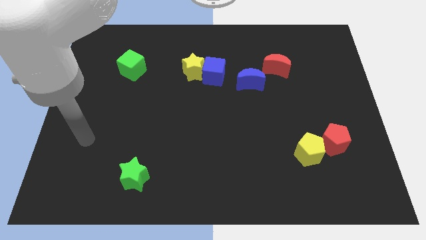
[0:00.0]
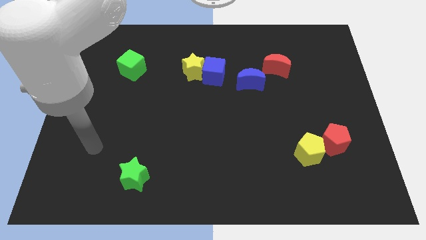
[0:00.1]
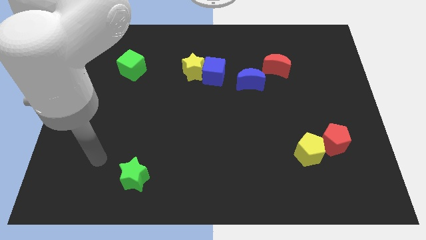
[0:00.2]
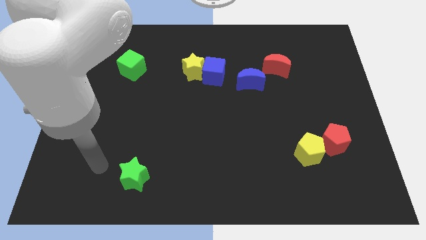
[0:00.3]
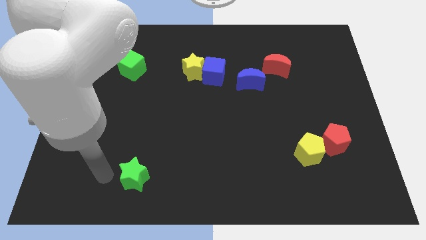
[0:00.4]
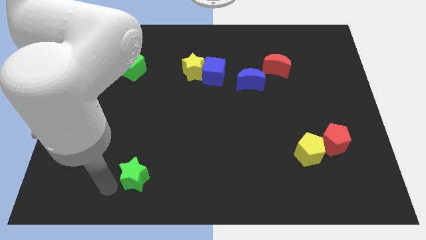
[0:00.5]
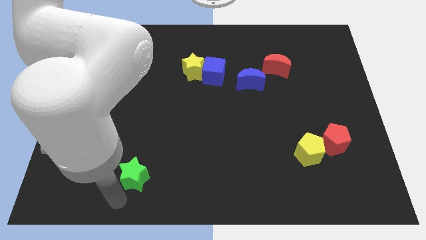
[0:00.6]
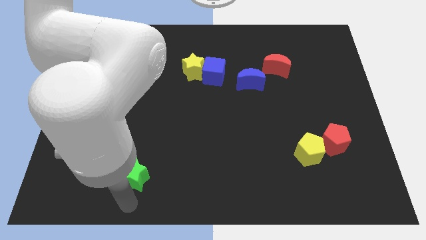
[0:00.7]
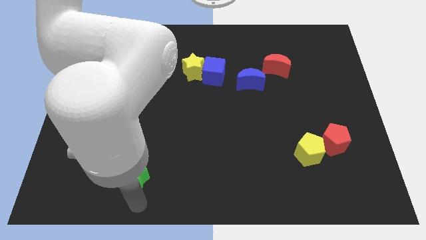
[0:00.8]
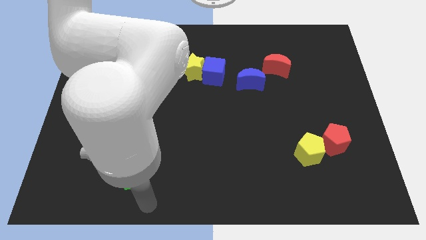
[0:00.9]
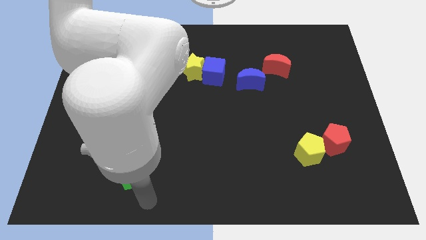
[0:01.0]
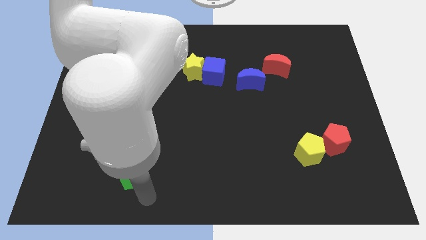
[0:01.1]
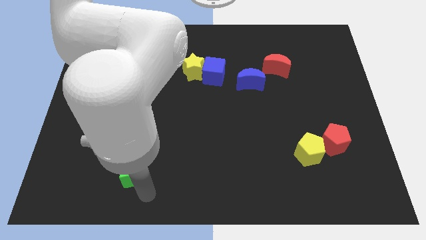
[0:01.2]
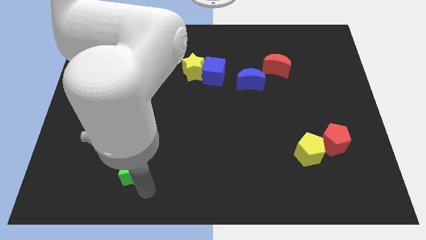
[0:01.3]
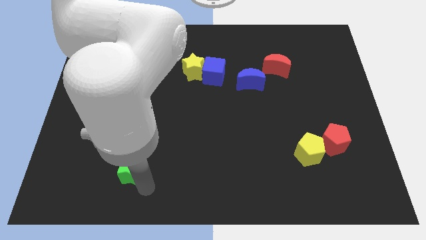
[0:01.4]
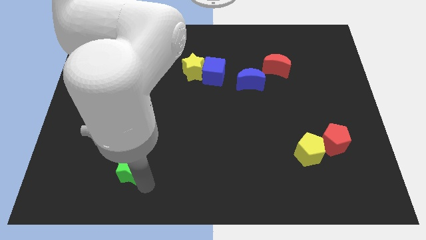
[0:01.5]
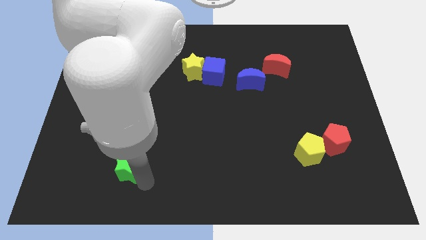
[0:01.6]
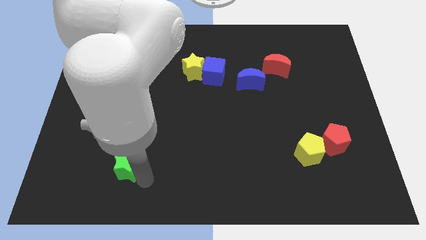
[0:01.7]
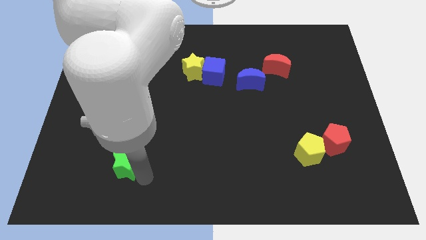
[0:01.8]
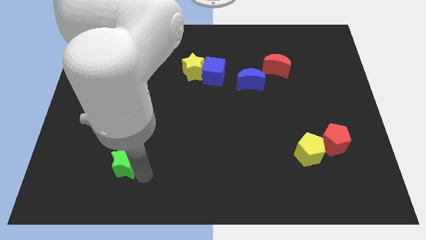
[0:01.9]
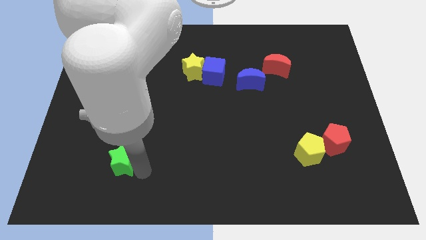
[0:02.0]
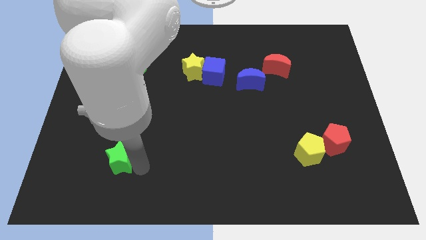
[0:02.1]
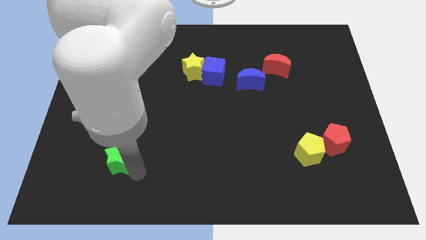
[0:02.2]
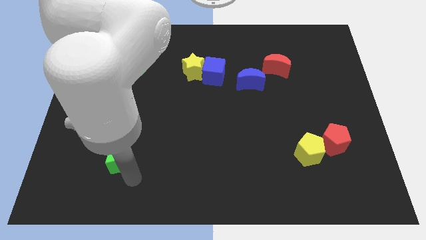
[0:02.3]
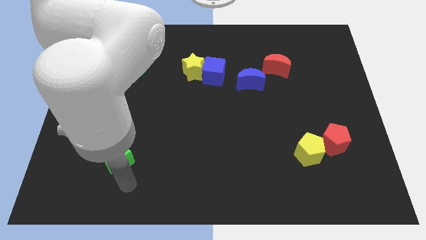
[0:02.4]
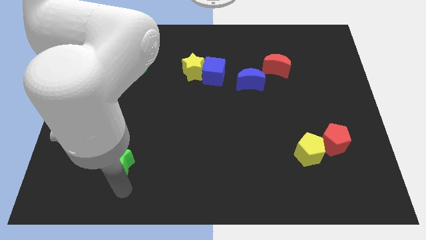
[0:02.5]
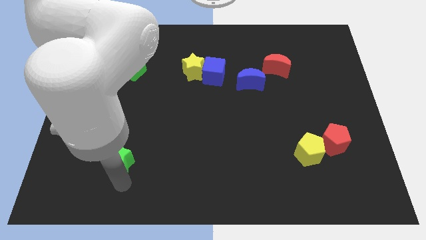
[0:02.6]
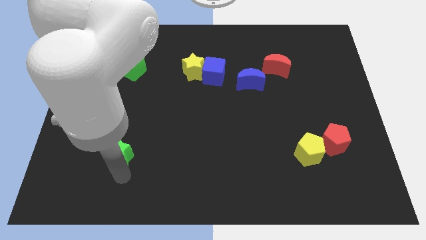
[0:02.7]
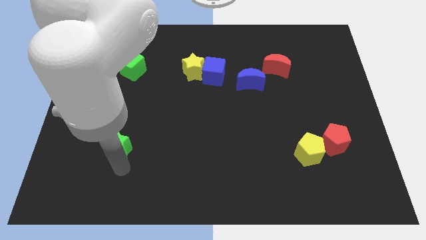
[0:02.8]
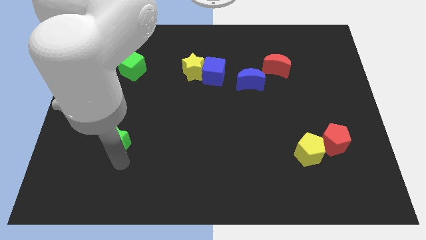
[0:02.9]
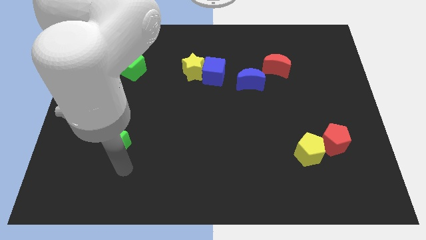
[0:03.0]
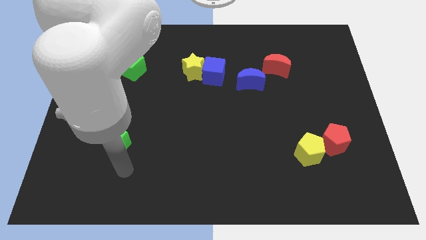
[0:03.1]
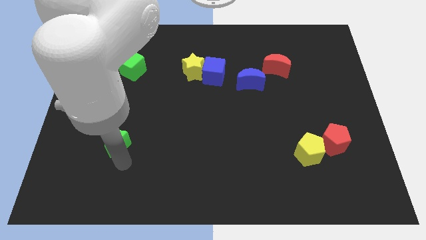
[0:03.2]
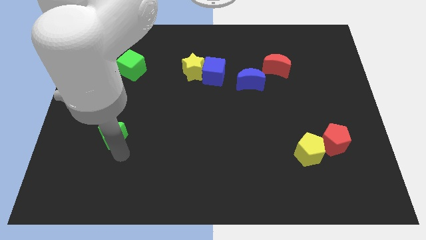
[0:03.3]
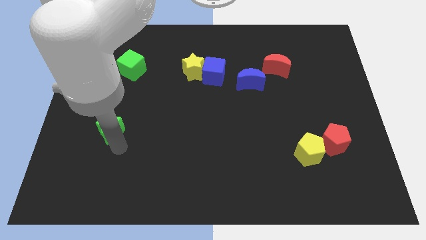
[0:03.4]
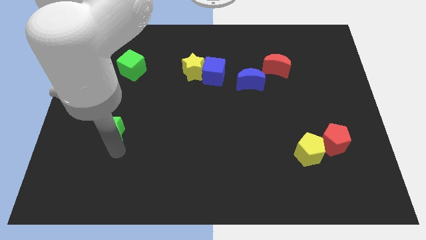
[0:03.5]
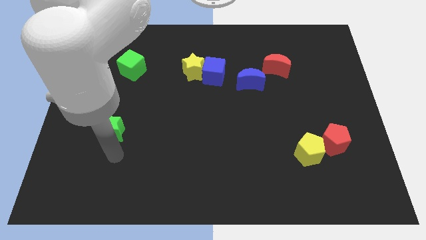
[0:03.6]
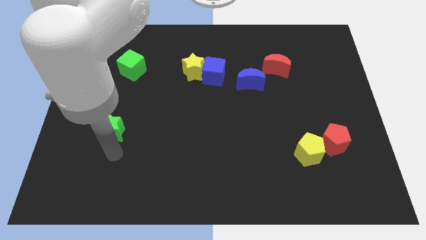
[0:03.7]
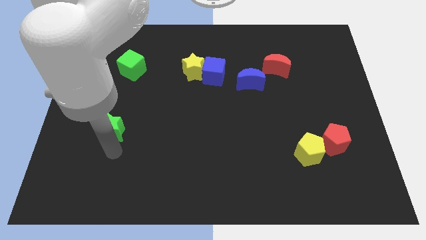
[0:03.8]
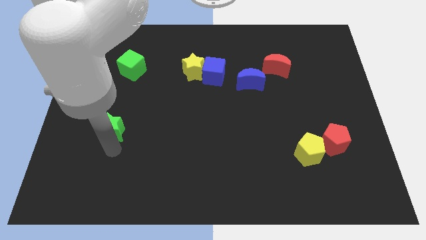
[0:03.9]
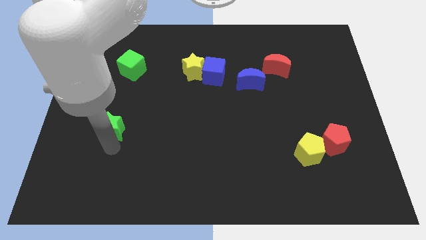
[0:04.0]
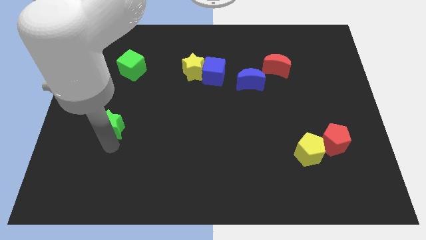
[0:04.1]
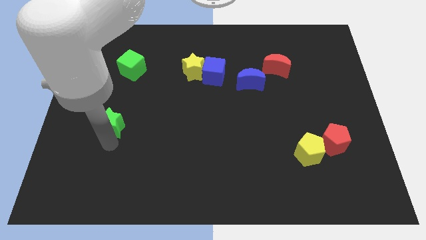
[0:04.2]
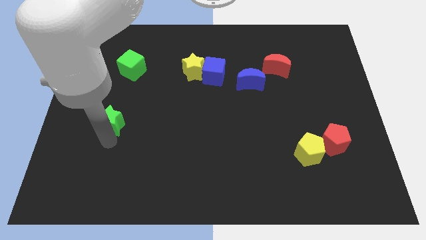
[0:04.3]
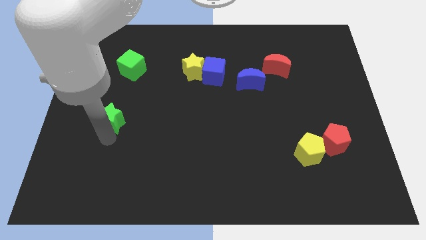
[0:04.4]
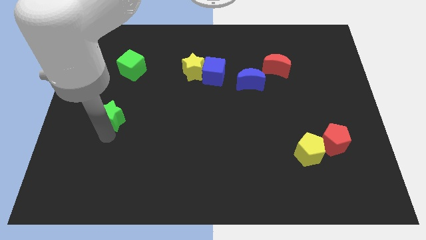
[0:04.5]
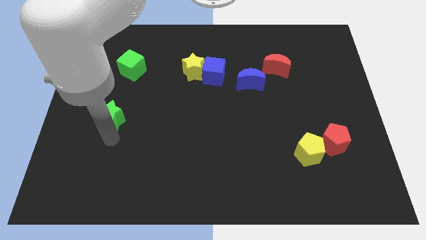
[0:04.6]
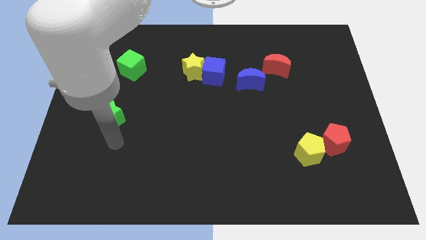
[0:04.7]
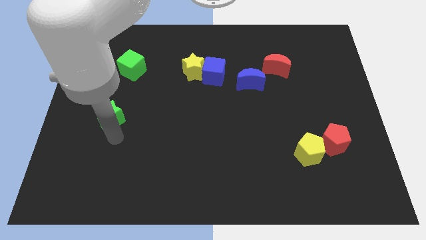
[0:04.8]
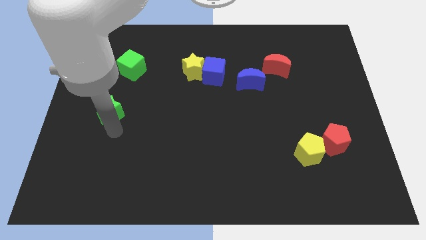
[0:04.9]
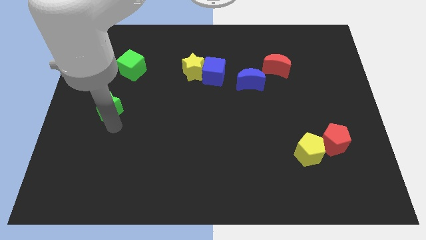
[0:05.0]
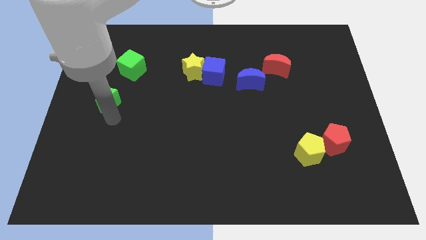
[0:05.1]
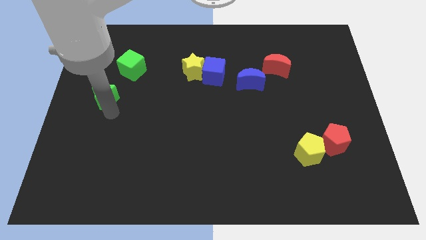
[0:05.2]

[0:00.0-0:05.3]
put the green star to the bottom left of the green cube

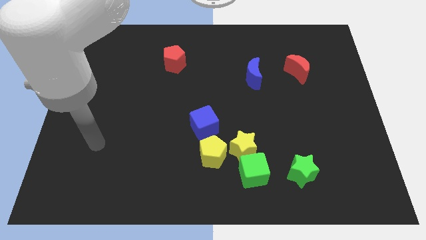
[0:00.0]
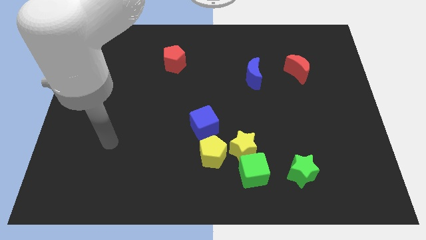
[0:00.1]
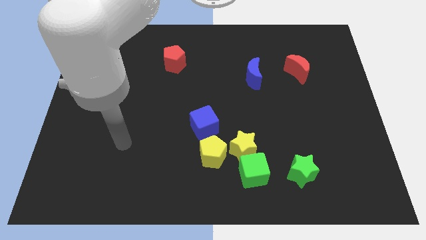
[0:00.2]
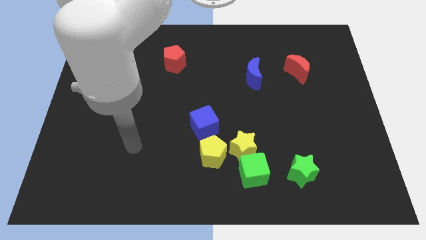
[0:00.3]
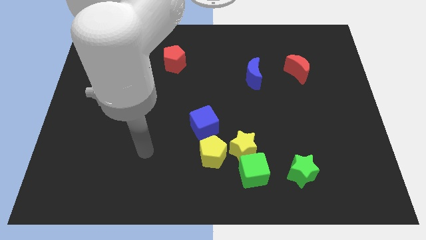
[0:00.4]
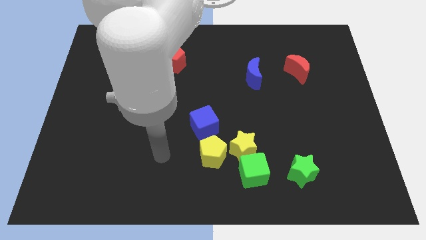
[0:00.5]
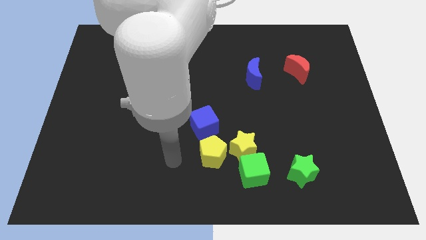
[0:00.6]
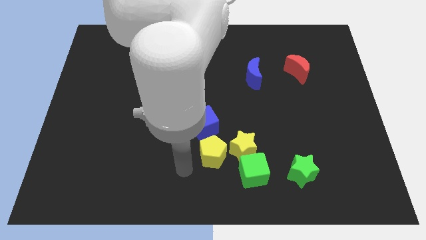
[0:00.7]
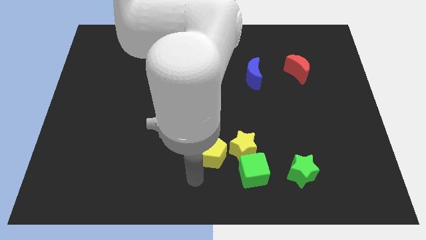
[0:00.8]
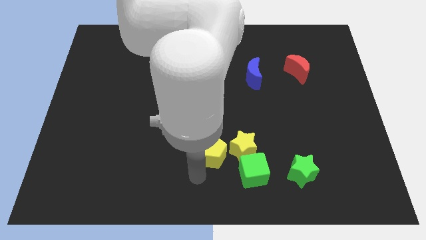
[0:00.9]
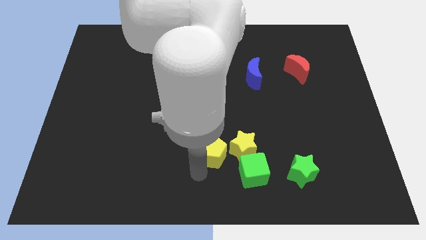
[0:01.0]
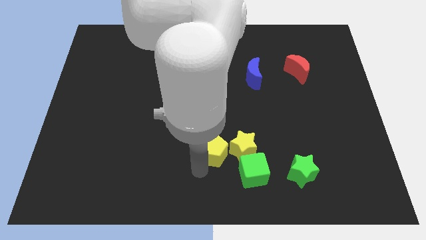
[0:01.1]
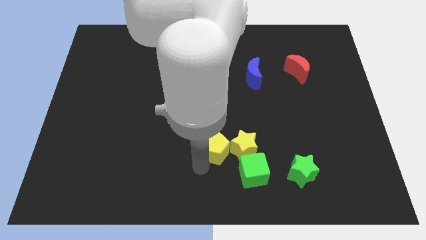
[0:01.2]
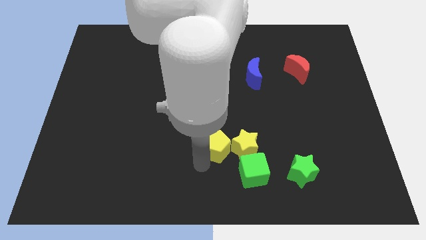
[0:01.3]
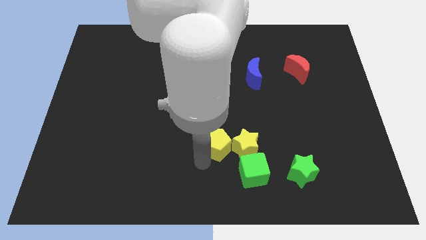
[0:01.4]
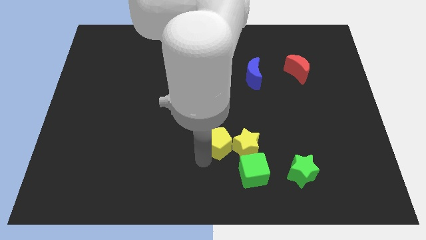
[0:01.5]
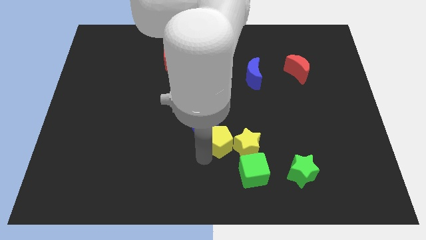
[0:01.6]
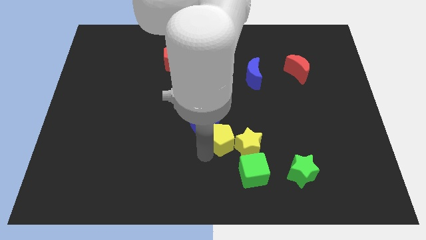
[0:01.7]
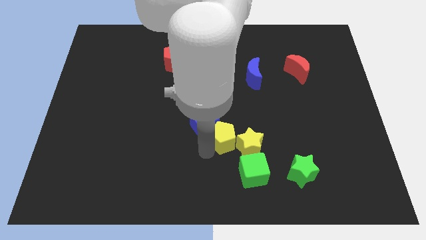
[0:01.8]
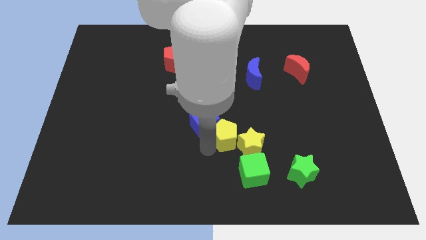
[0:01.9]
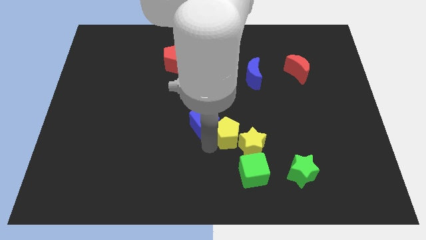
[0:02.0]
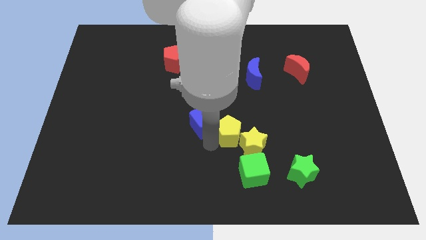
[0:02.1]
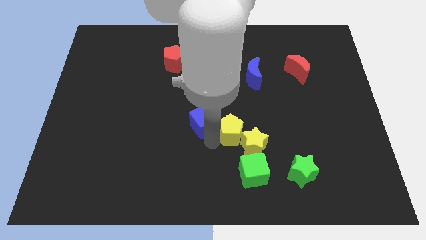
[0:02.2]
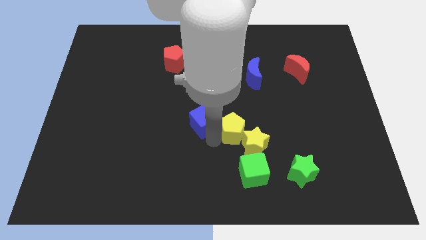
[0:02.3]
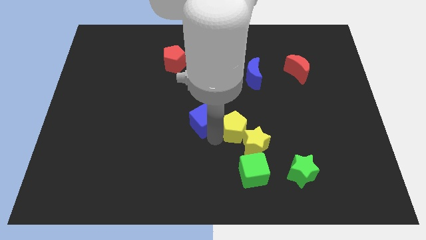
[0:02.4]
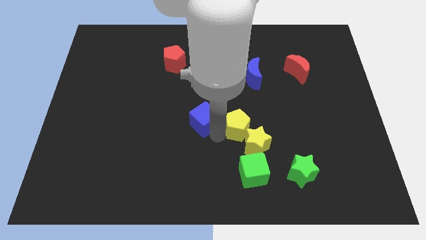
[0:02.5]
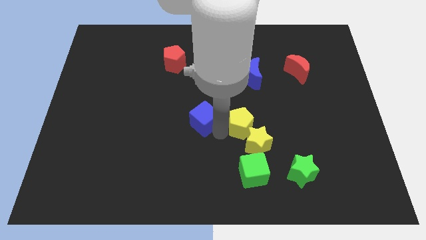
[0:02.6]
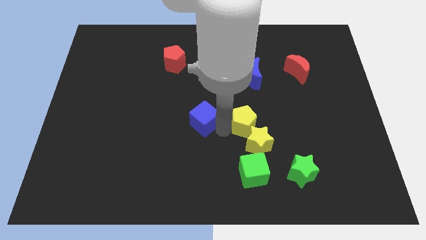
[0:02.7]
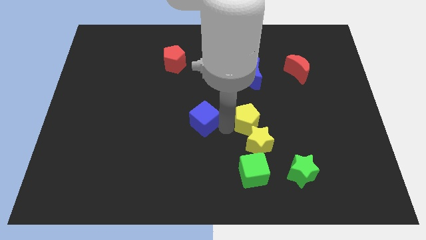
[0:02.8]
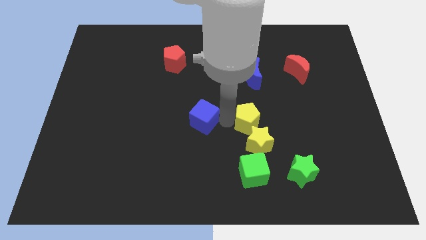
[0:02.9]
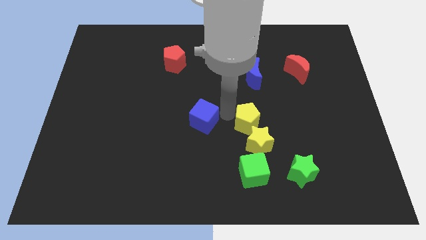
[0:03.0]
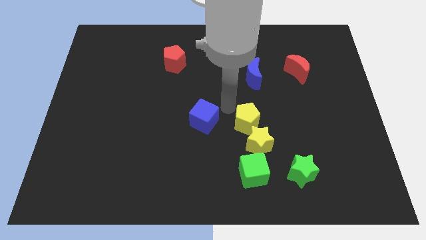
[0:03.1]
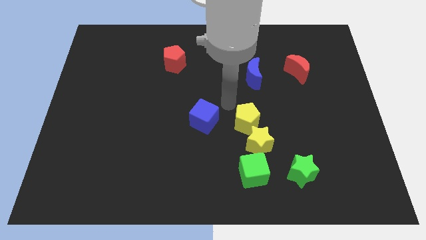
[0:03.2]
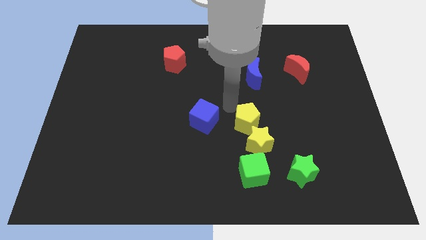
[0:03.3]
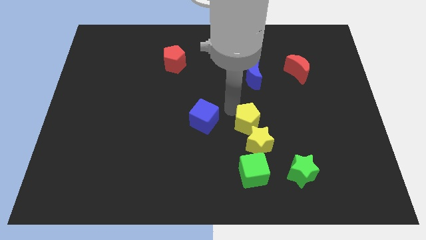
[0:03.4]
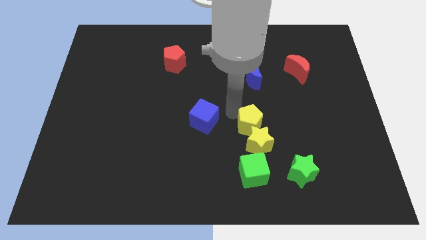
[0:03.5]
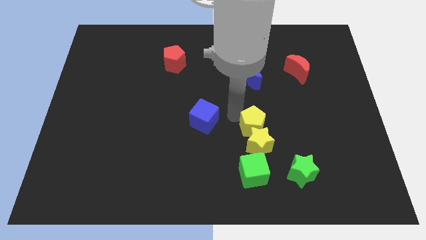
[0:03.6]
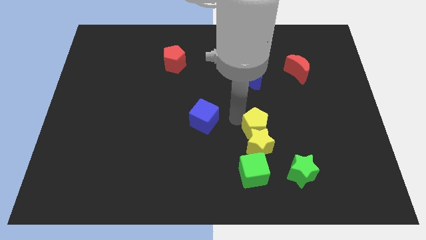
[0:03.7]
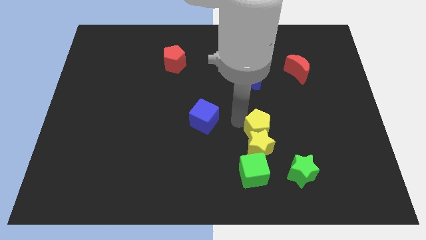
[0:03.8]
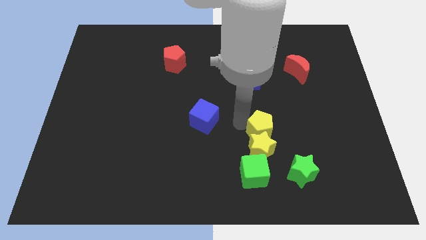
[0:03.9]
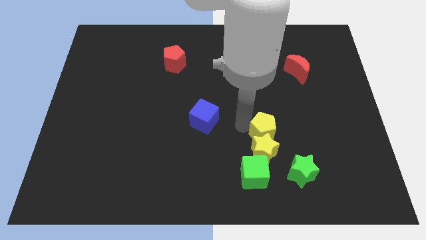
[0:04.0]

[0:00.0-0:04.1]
slide the yellow pentagon diagonally up and to the left of the green star
